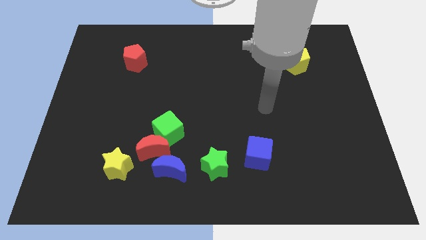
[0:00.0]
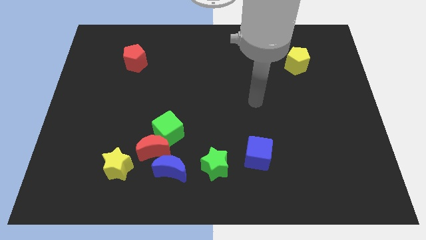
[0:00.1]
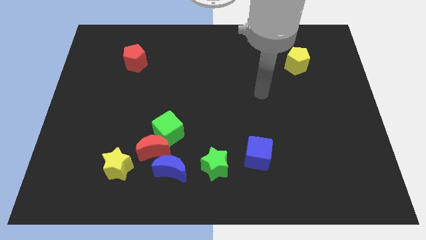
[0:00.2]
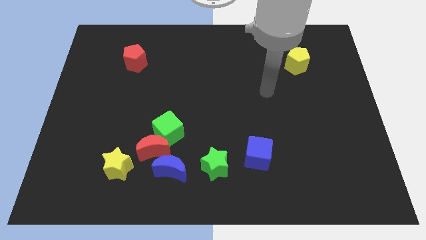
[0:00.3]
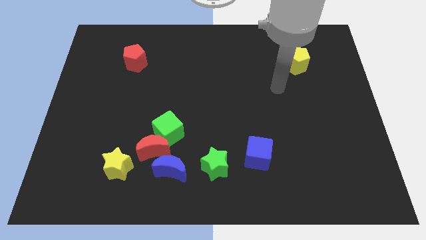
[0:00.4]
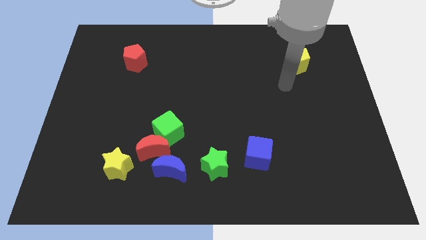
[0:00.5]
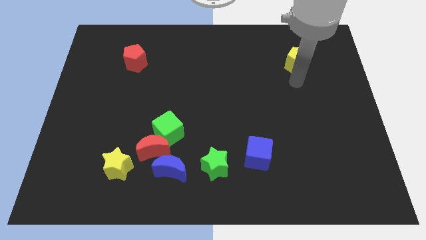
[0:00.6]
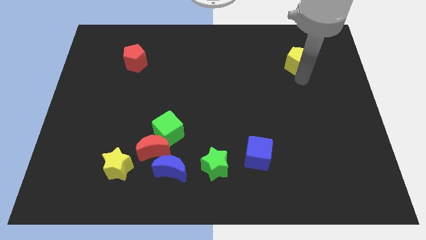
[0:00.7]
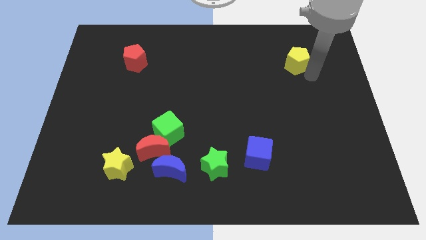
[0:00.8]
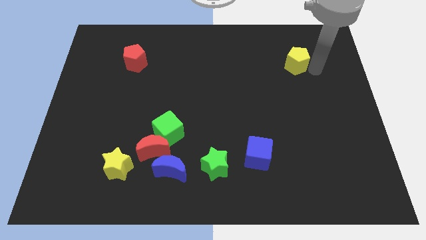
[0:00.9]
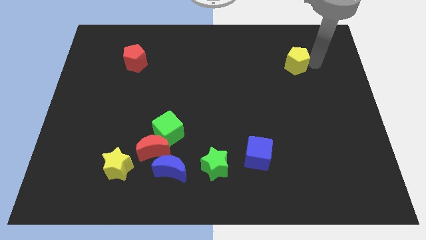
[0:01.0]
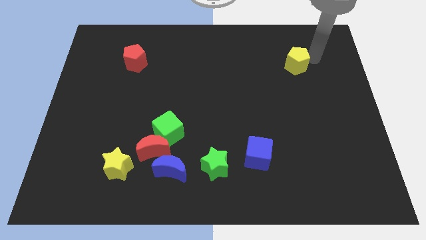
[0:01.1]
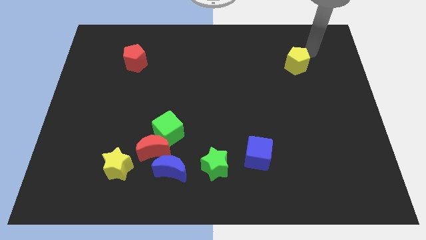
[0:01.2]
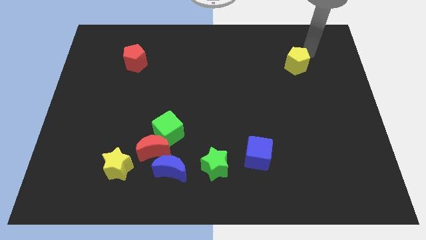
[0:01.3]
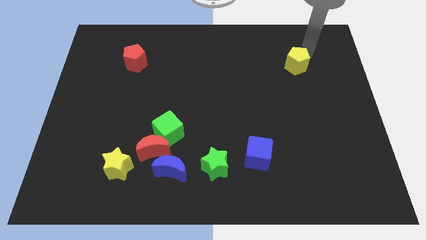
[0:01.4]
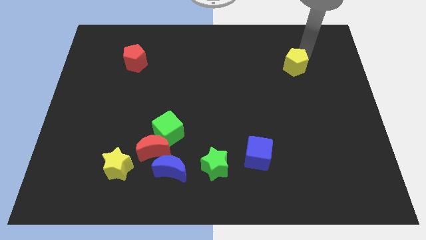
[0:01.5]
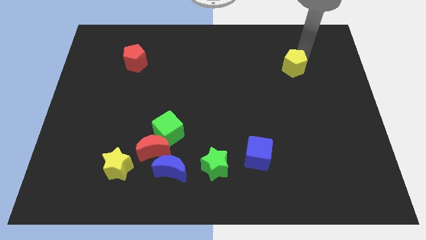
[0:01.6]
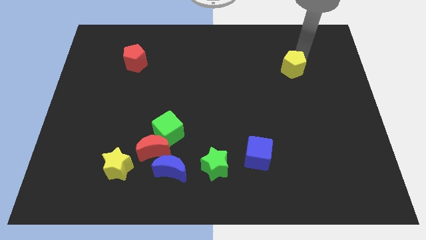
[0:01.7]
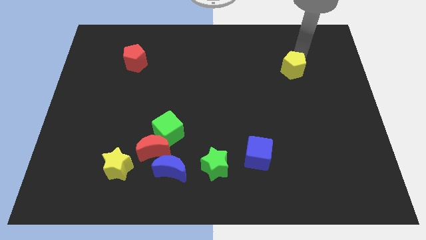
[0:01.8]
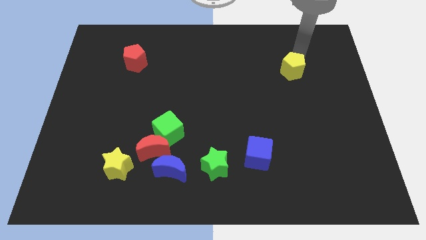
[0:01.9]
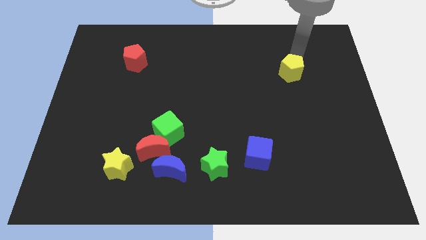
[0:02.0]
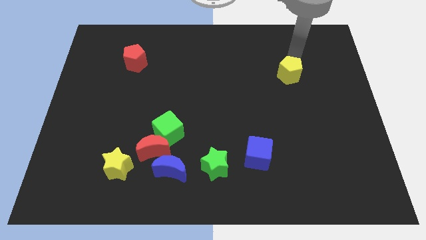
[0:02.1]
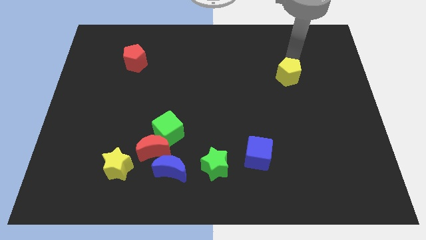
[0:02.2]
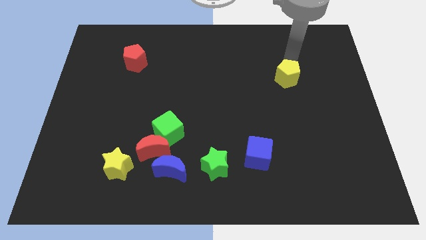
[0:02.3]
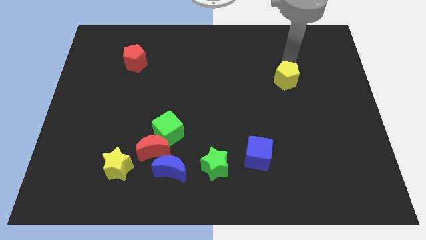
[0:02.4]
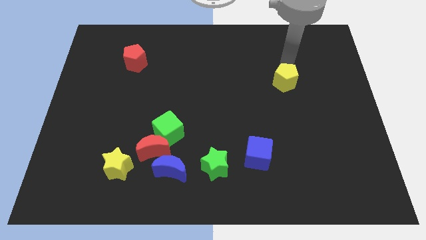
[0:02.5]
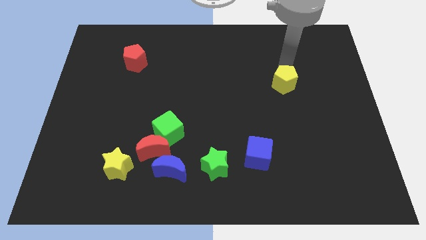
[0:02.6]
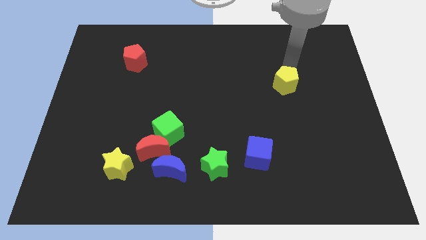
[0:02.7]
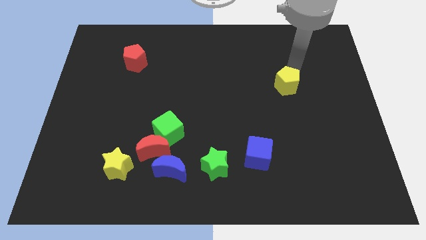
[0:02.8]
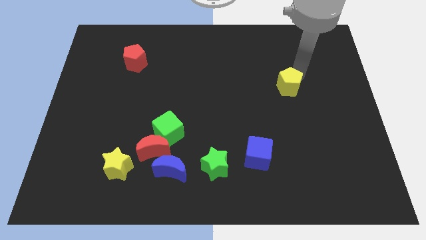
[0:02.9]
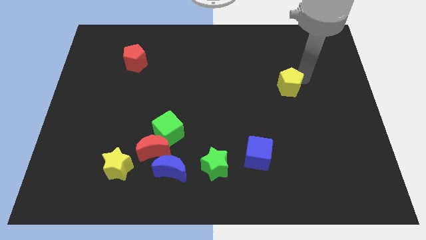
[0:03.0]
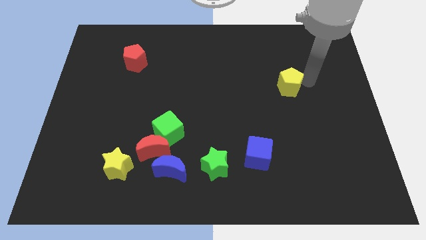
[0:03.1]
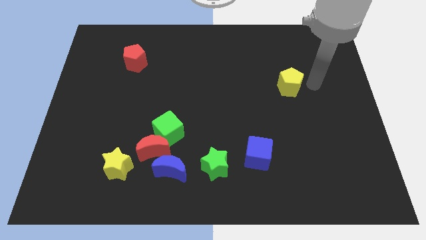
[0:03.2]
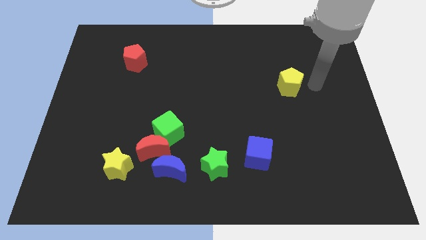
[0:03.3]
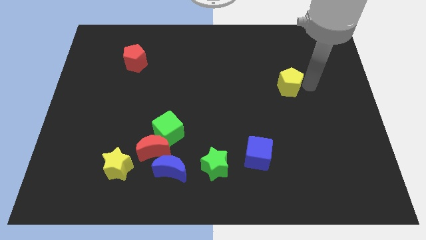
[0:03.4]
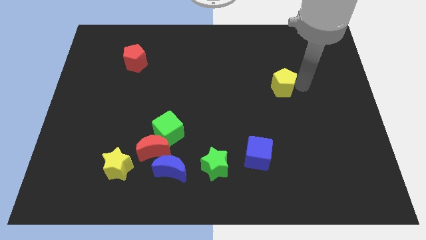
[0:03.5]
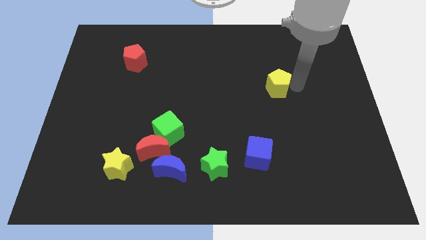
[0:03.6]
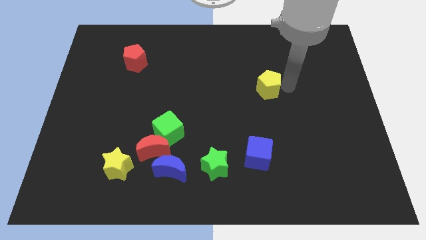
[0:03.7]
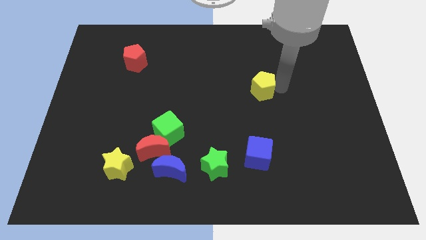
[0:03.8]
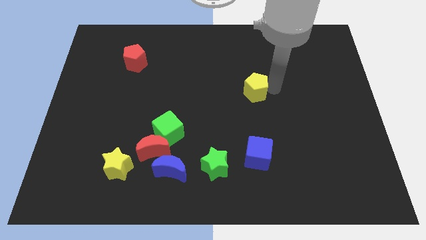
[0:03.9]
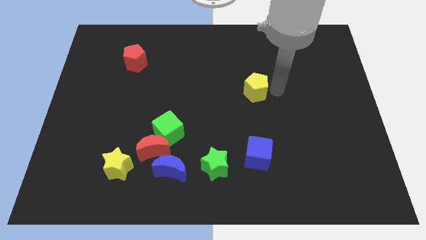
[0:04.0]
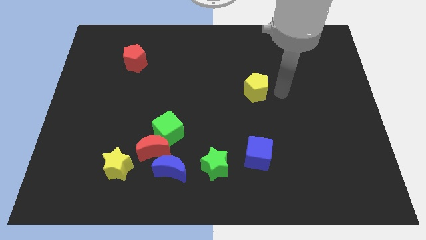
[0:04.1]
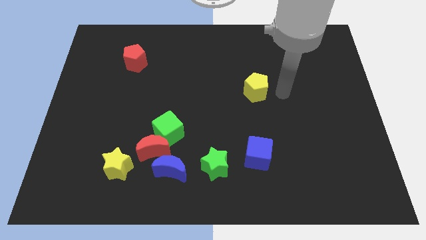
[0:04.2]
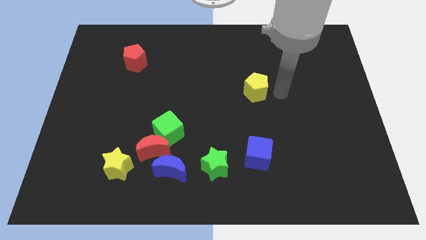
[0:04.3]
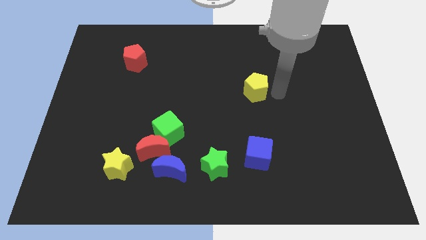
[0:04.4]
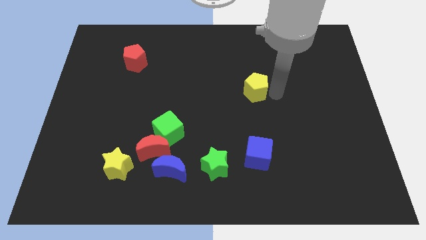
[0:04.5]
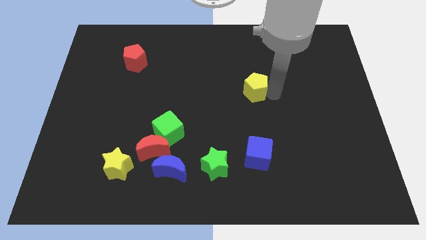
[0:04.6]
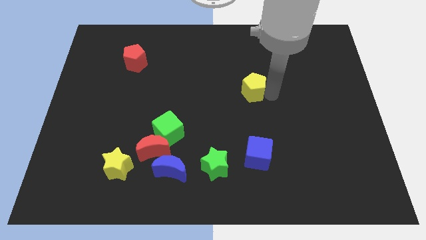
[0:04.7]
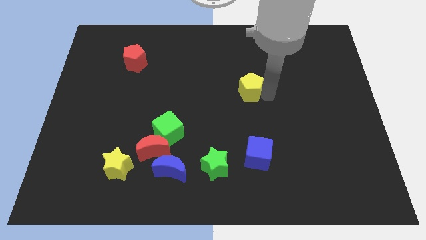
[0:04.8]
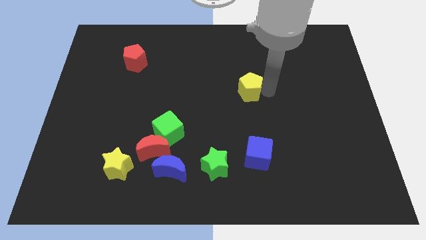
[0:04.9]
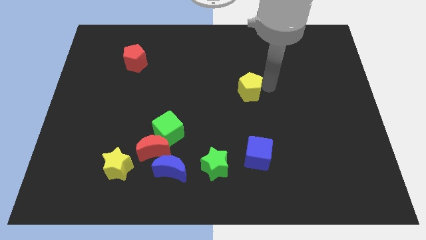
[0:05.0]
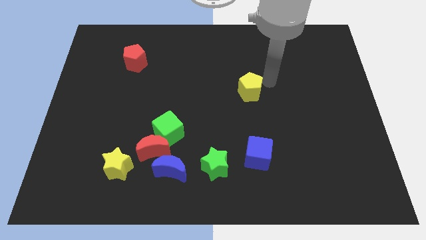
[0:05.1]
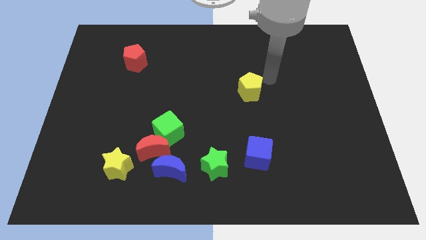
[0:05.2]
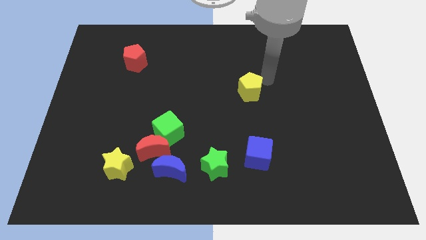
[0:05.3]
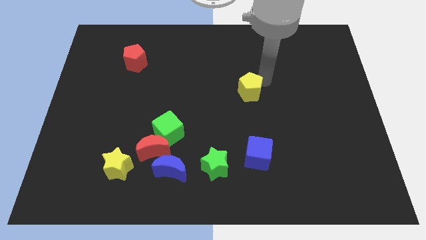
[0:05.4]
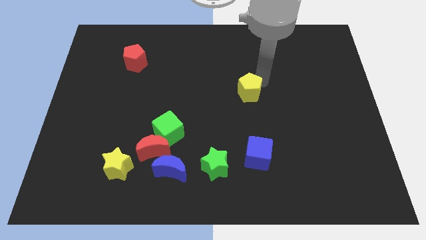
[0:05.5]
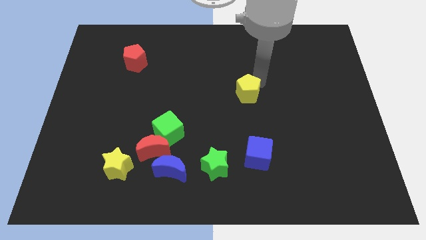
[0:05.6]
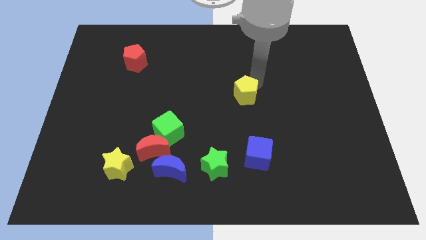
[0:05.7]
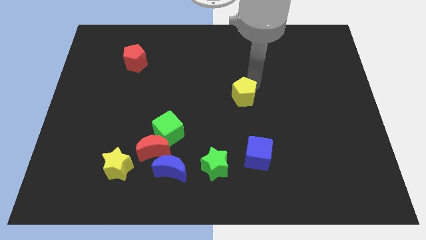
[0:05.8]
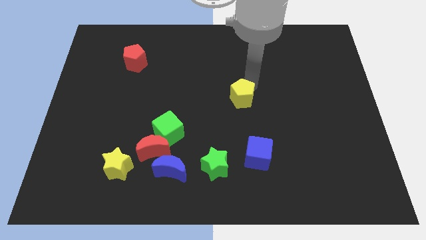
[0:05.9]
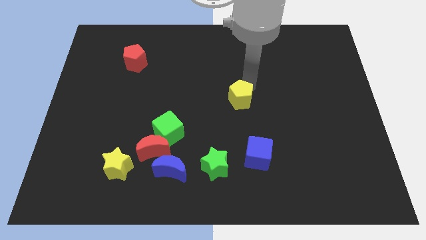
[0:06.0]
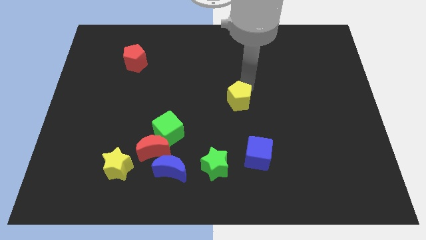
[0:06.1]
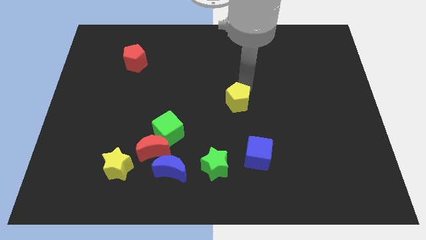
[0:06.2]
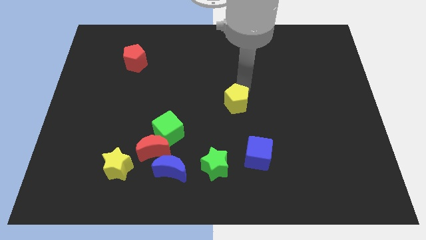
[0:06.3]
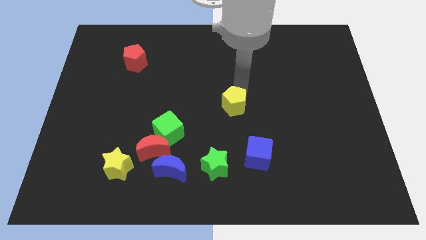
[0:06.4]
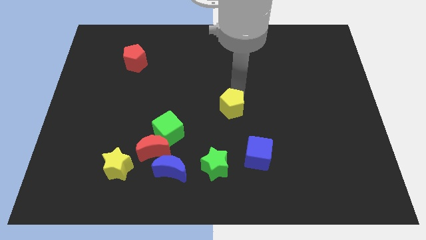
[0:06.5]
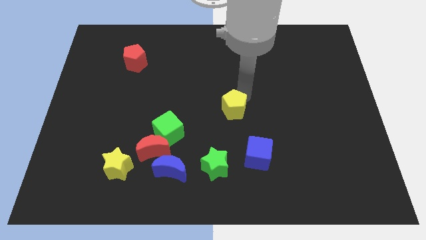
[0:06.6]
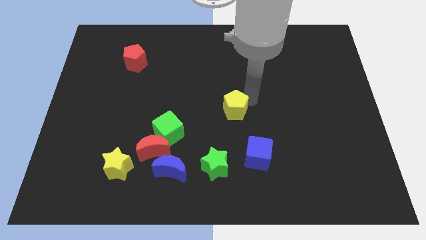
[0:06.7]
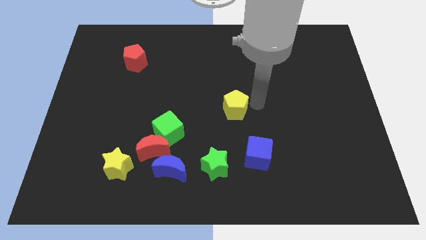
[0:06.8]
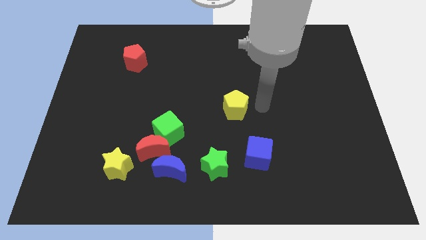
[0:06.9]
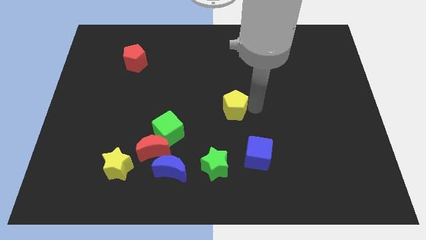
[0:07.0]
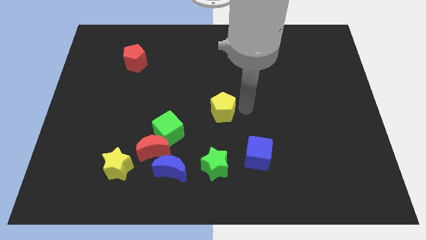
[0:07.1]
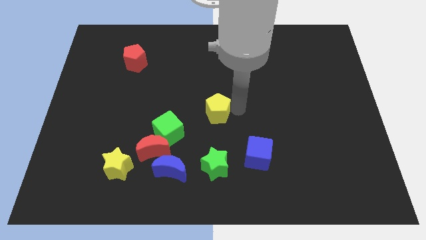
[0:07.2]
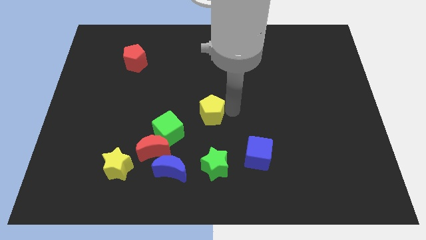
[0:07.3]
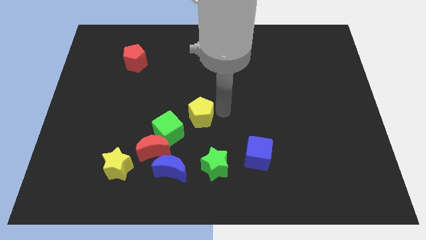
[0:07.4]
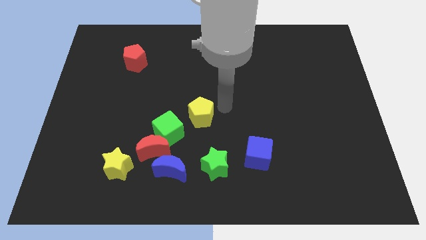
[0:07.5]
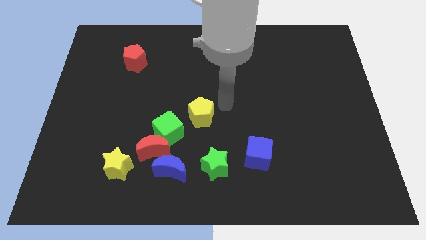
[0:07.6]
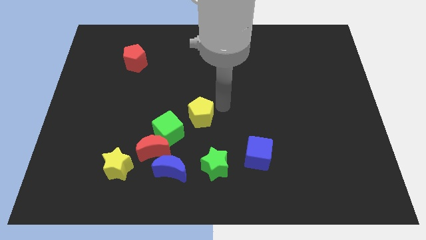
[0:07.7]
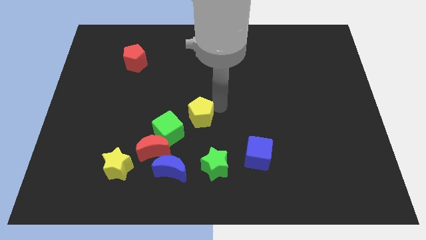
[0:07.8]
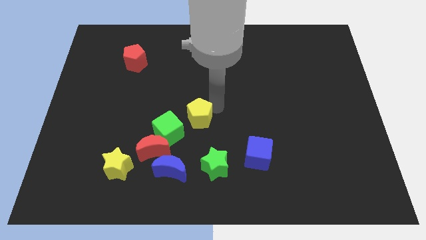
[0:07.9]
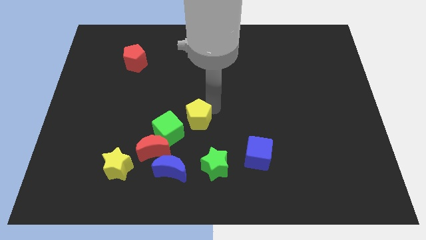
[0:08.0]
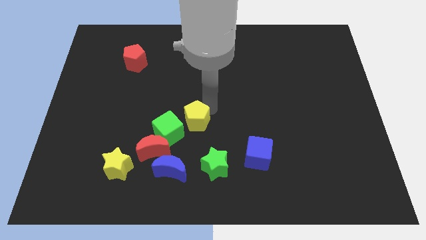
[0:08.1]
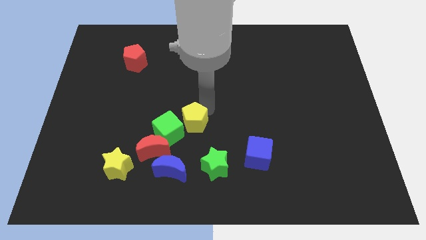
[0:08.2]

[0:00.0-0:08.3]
push the yellow pentagon above the blue moon
